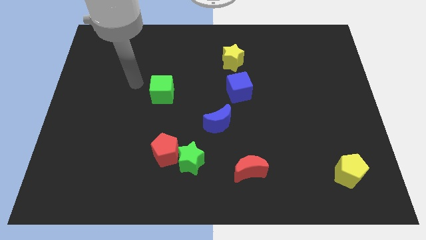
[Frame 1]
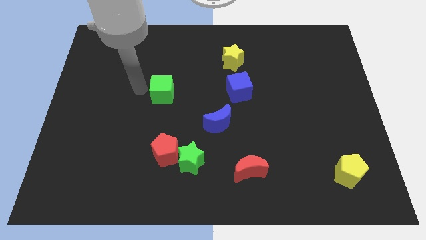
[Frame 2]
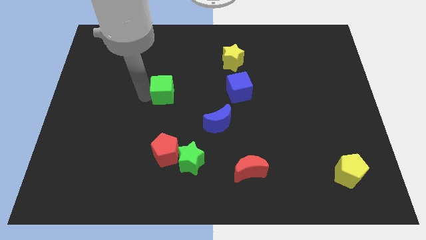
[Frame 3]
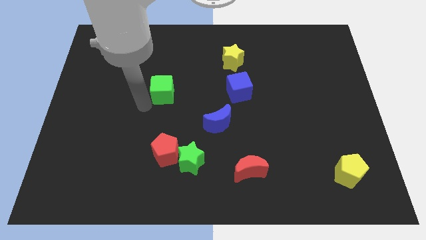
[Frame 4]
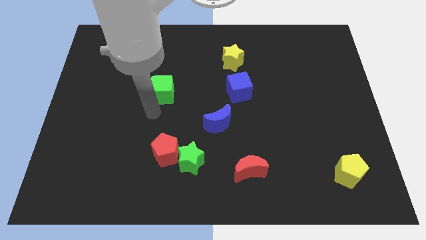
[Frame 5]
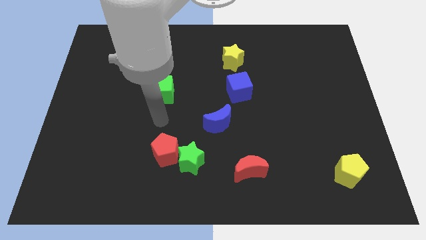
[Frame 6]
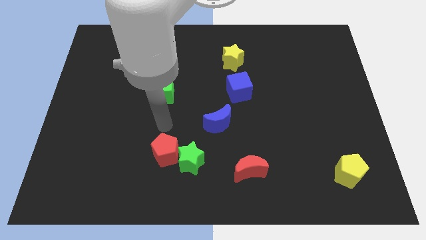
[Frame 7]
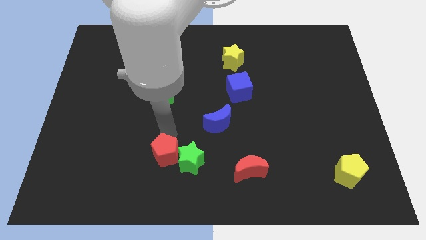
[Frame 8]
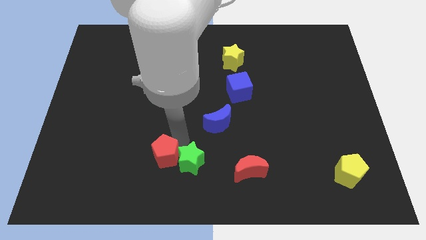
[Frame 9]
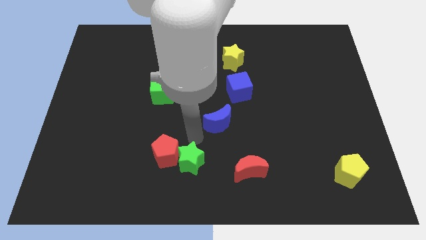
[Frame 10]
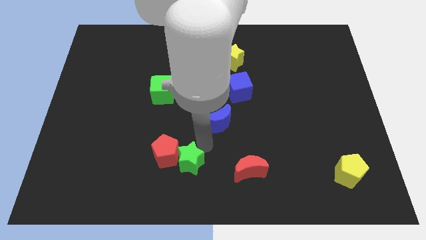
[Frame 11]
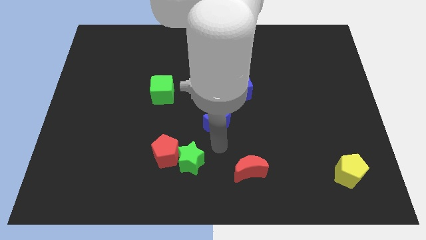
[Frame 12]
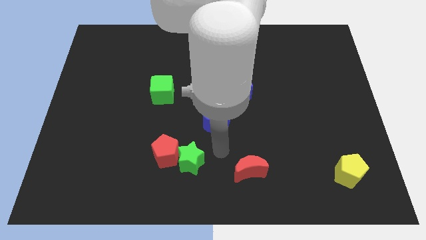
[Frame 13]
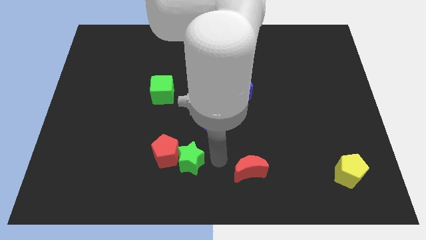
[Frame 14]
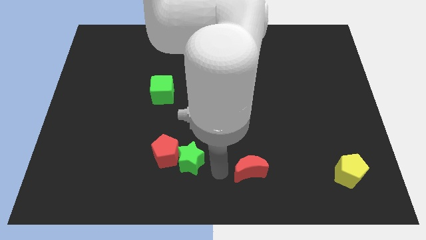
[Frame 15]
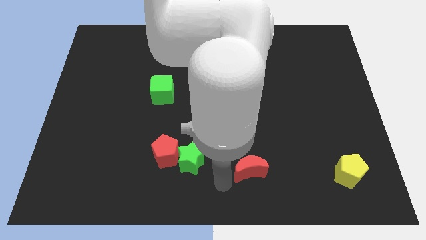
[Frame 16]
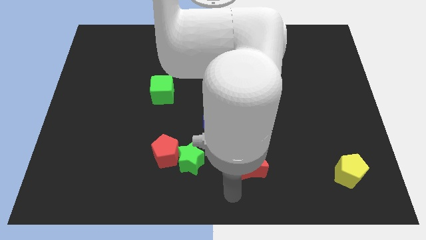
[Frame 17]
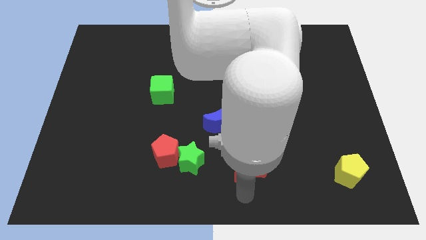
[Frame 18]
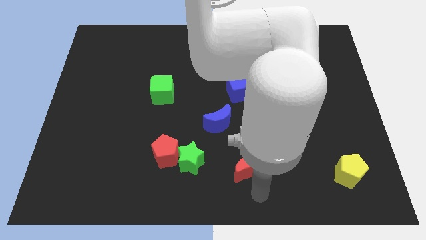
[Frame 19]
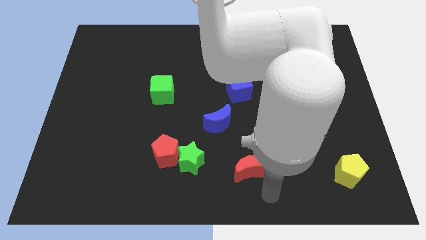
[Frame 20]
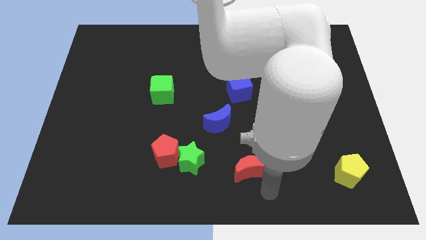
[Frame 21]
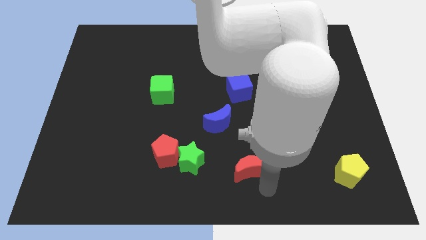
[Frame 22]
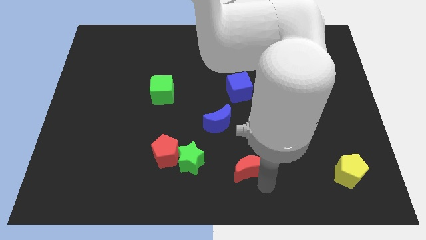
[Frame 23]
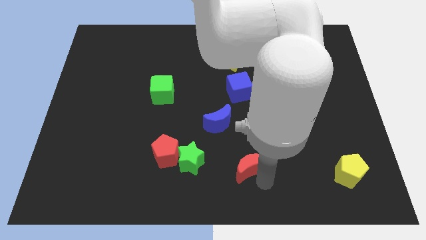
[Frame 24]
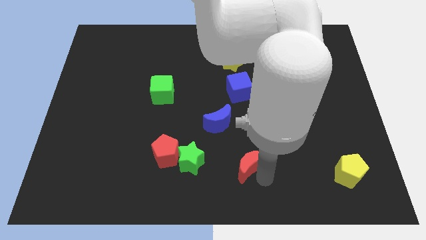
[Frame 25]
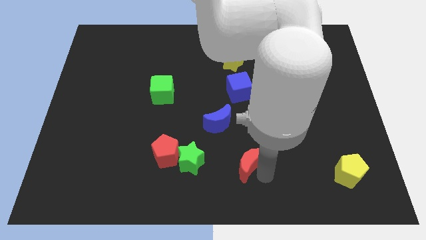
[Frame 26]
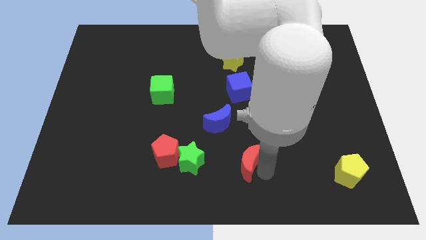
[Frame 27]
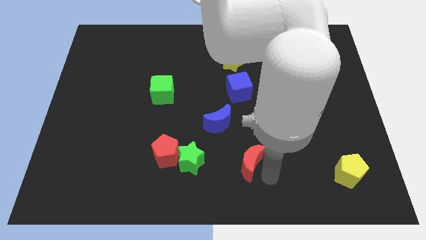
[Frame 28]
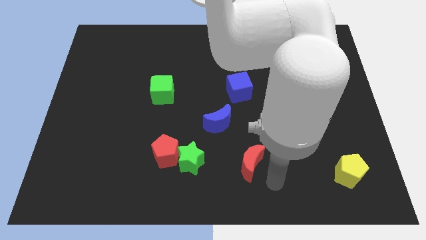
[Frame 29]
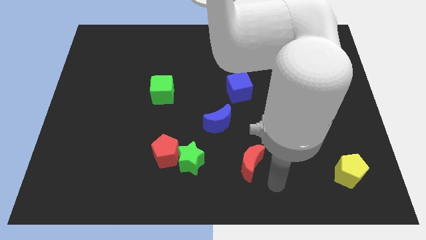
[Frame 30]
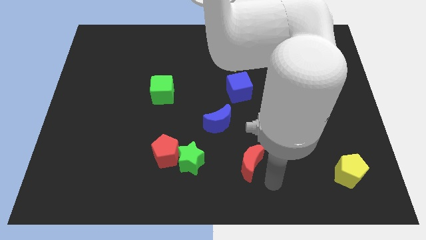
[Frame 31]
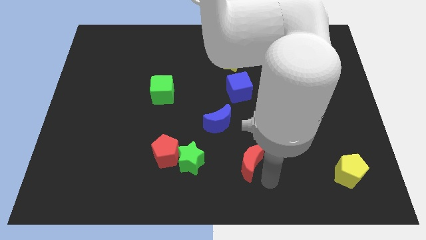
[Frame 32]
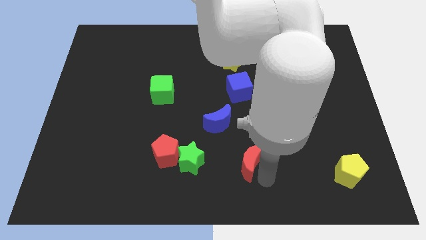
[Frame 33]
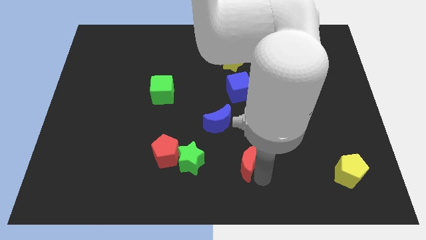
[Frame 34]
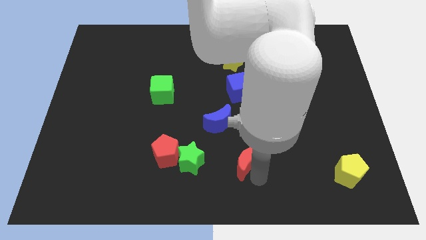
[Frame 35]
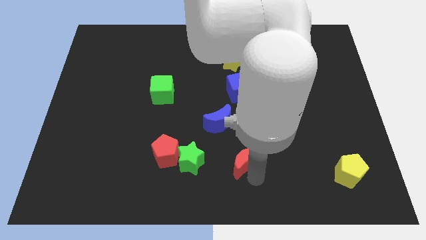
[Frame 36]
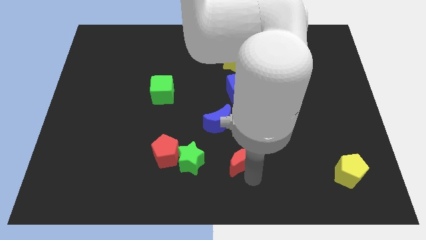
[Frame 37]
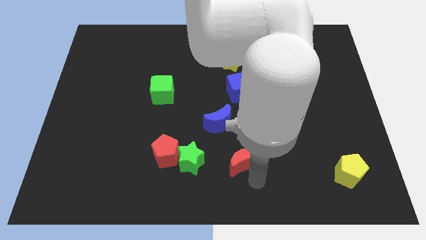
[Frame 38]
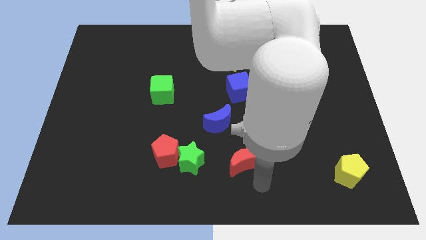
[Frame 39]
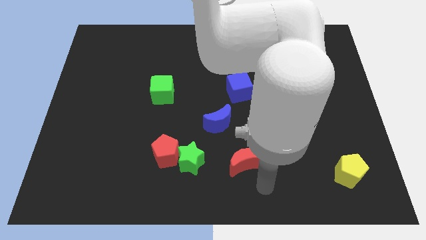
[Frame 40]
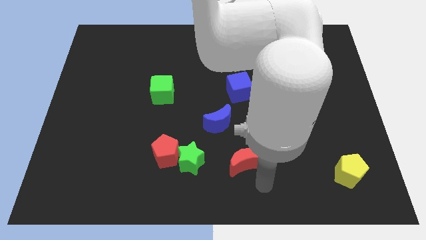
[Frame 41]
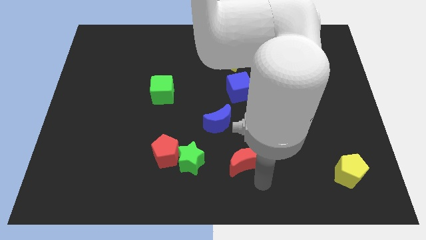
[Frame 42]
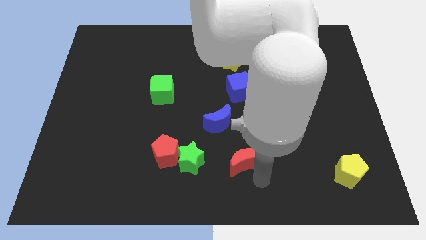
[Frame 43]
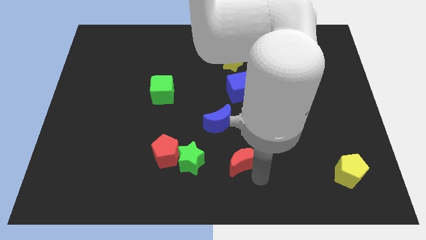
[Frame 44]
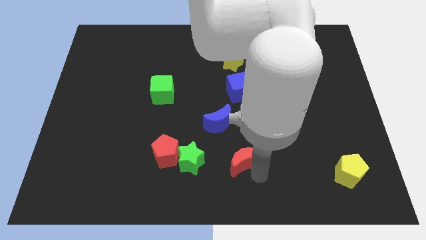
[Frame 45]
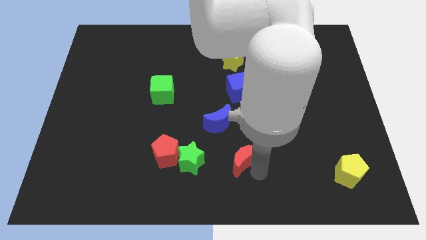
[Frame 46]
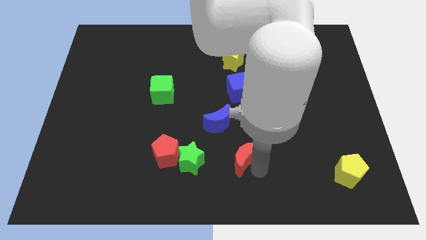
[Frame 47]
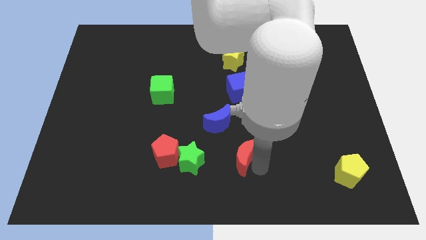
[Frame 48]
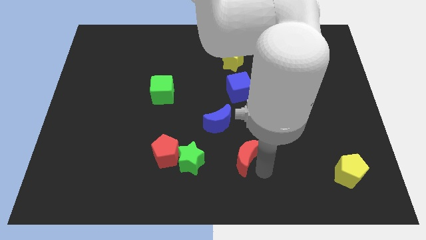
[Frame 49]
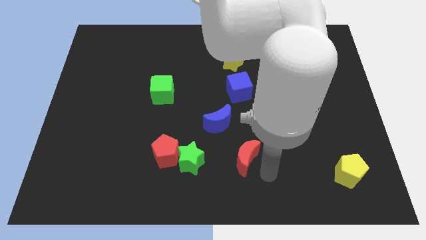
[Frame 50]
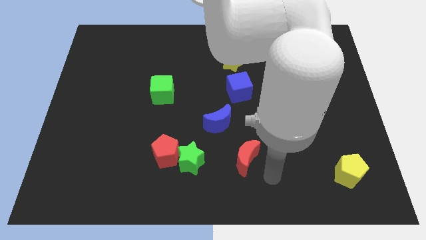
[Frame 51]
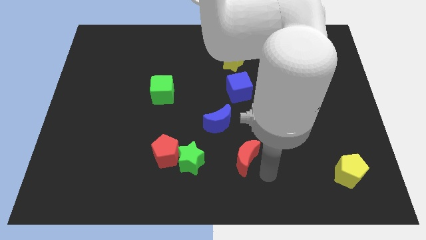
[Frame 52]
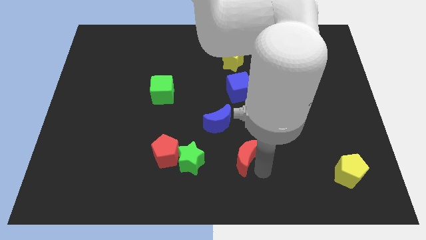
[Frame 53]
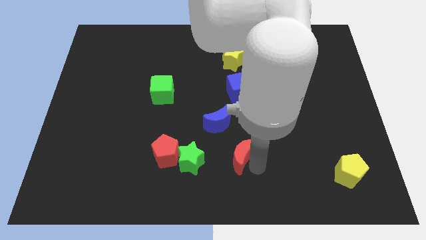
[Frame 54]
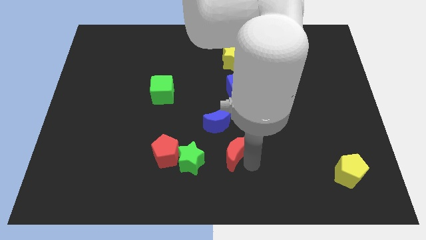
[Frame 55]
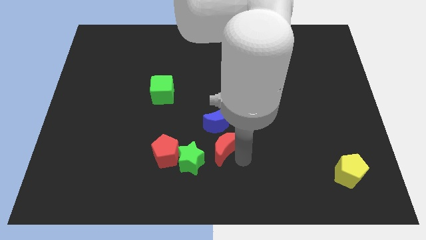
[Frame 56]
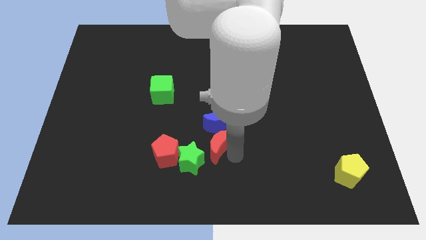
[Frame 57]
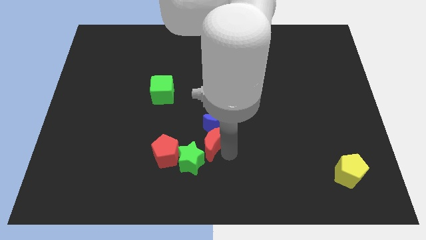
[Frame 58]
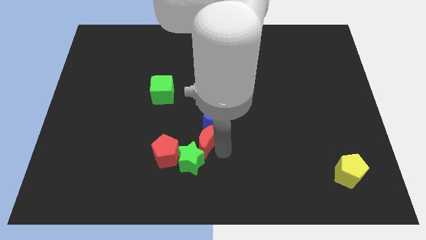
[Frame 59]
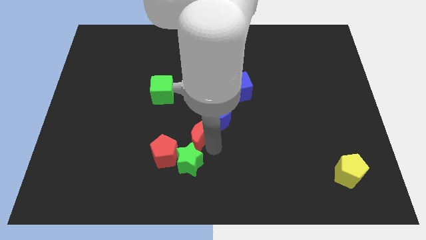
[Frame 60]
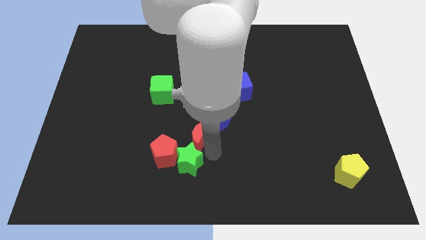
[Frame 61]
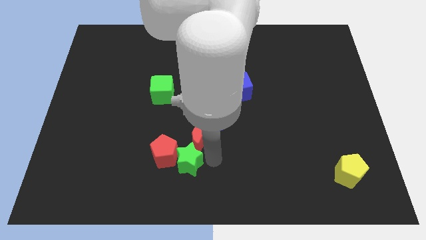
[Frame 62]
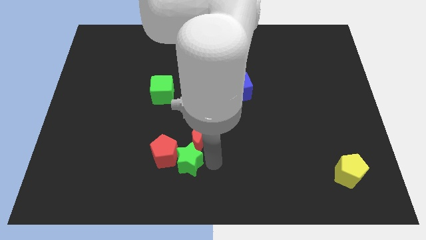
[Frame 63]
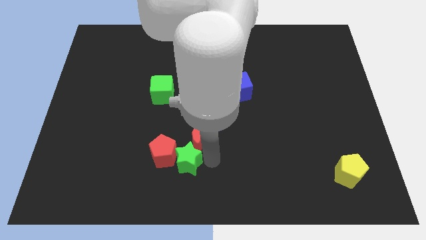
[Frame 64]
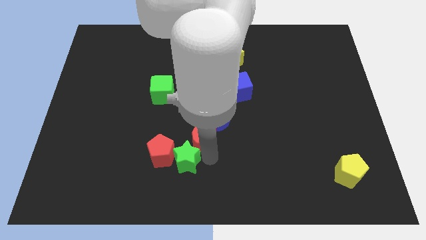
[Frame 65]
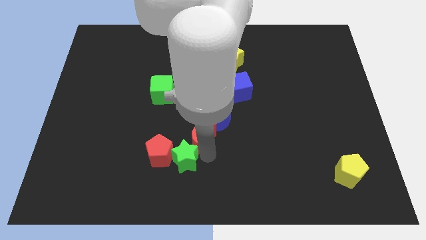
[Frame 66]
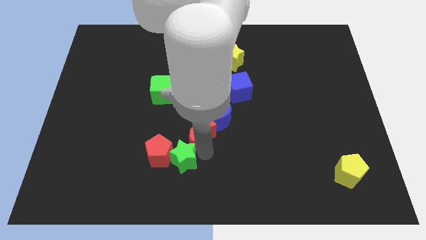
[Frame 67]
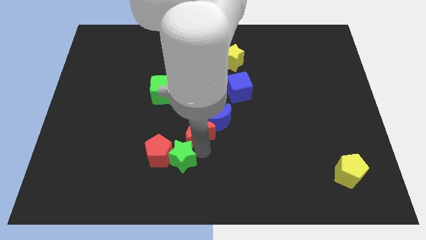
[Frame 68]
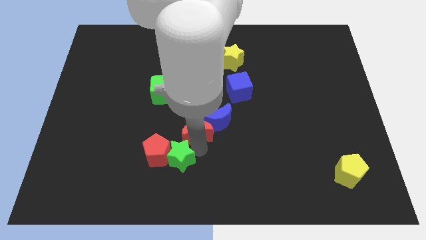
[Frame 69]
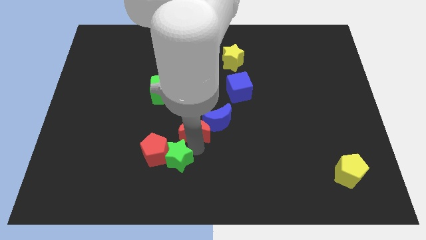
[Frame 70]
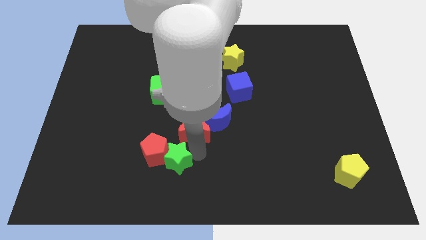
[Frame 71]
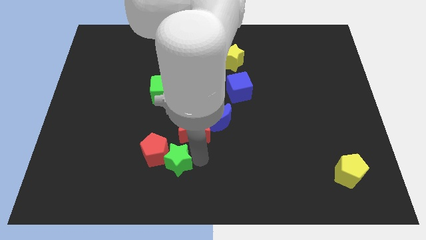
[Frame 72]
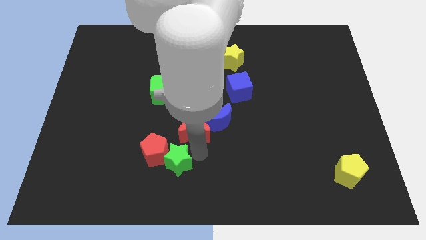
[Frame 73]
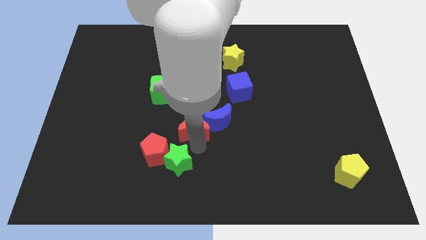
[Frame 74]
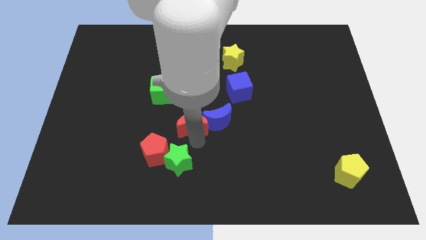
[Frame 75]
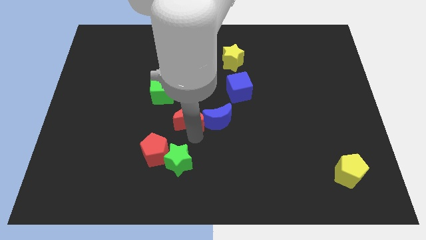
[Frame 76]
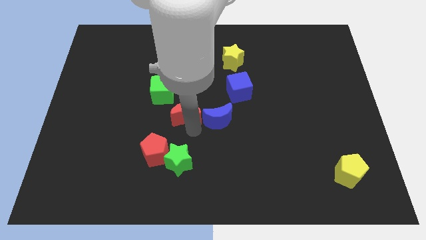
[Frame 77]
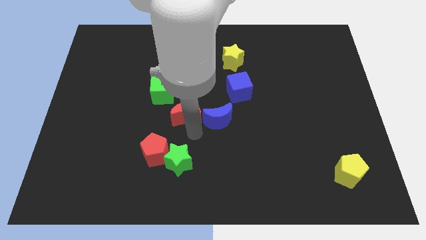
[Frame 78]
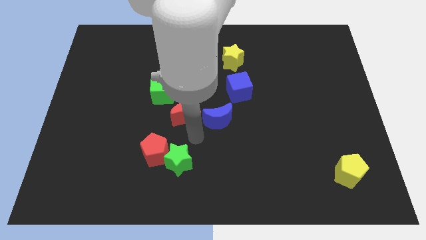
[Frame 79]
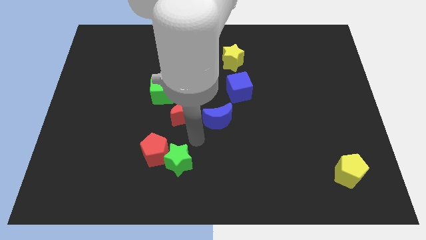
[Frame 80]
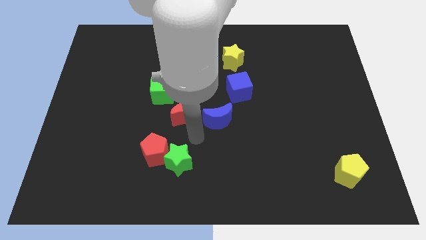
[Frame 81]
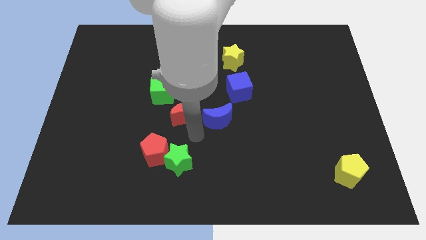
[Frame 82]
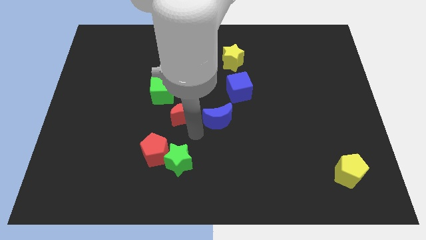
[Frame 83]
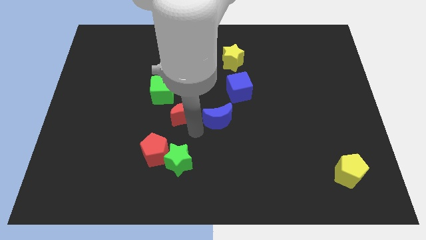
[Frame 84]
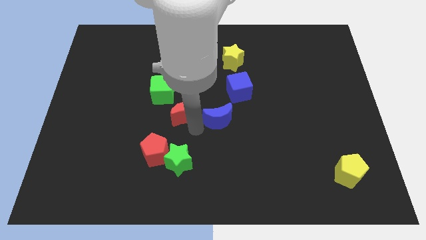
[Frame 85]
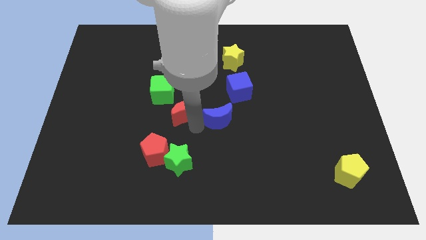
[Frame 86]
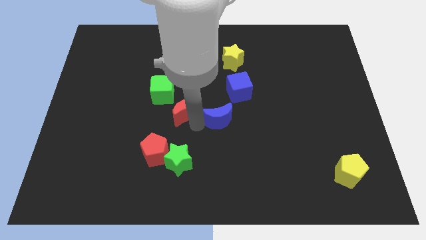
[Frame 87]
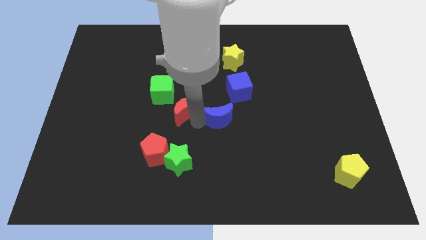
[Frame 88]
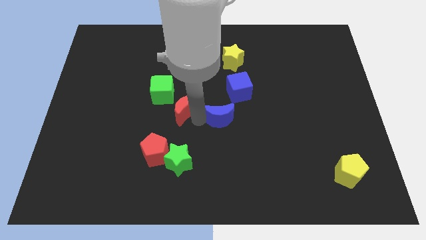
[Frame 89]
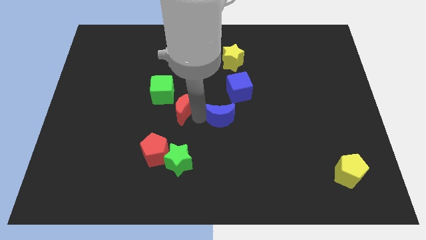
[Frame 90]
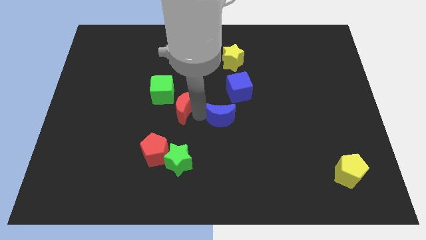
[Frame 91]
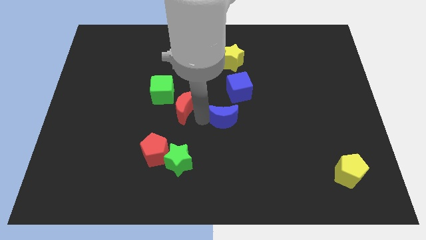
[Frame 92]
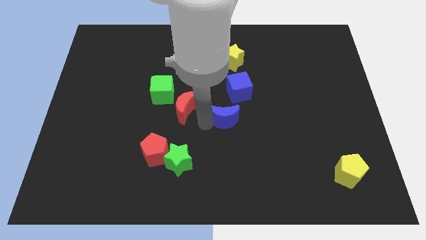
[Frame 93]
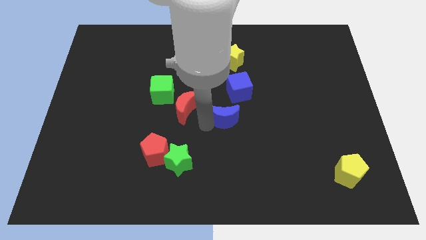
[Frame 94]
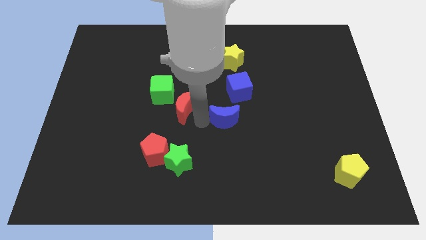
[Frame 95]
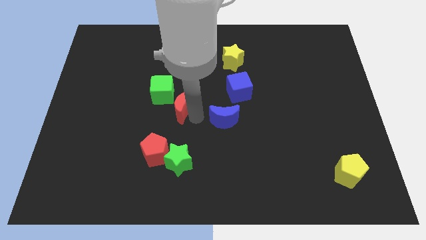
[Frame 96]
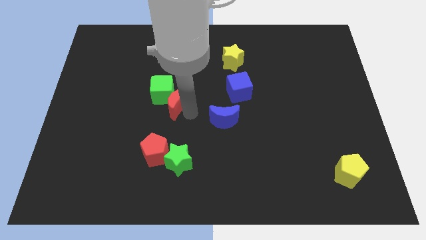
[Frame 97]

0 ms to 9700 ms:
slide the red moon towards the green cube
